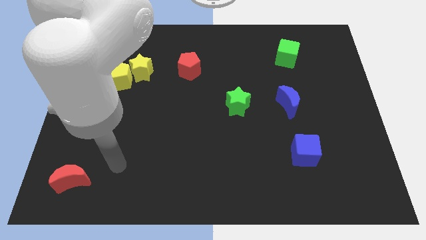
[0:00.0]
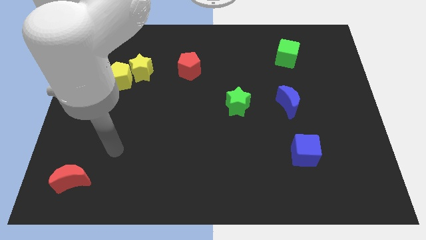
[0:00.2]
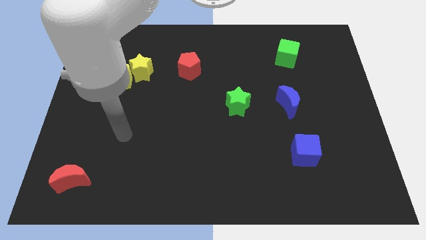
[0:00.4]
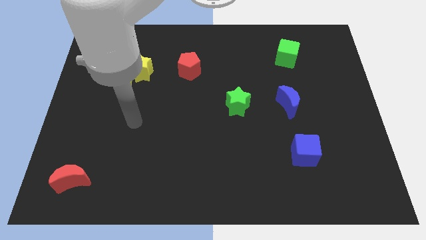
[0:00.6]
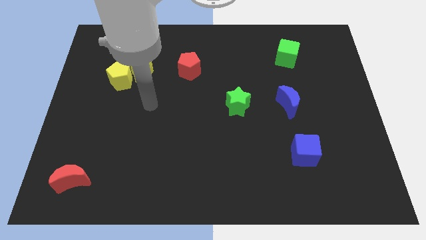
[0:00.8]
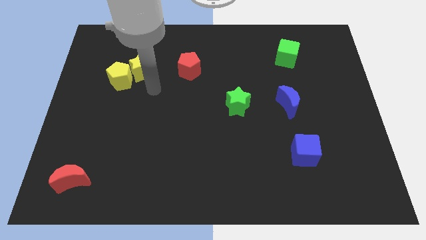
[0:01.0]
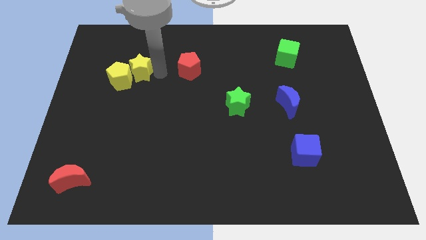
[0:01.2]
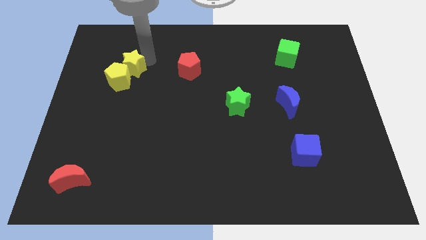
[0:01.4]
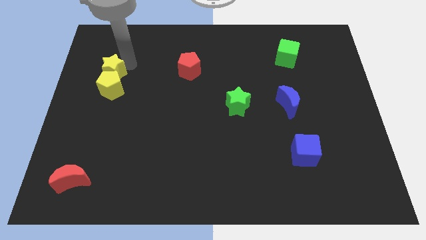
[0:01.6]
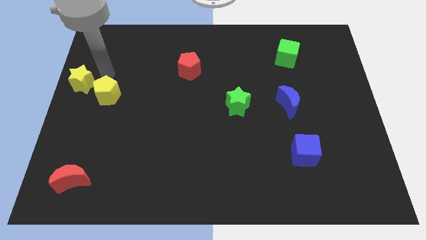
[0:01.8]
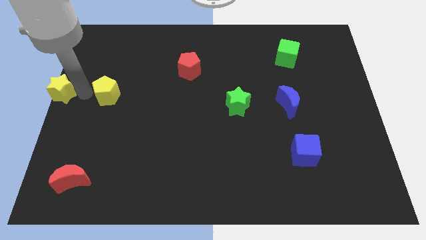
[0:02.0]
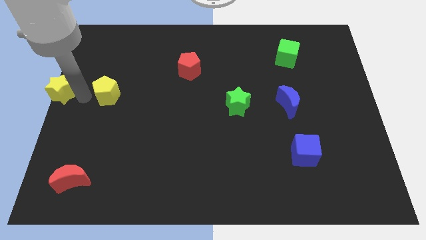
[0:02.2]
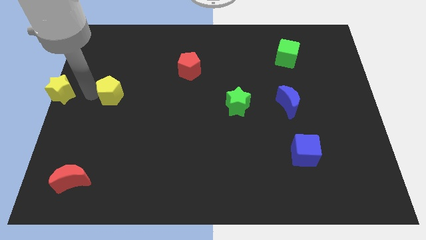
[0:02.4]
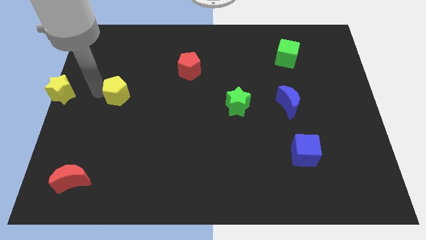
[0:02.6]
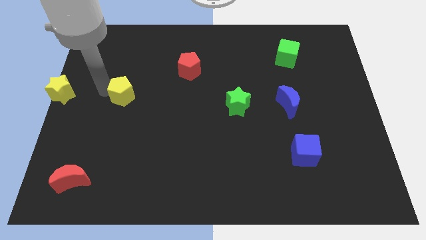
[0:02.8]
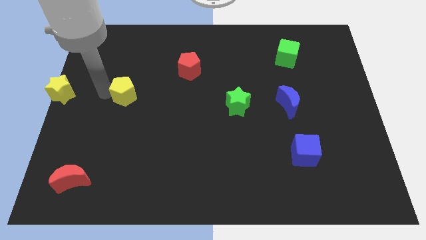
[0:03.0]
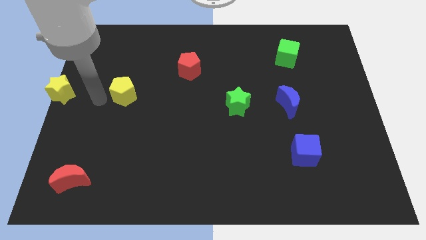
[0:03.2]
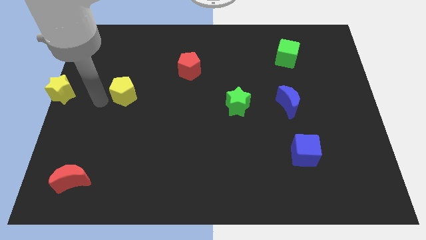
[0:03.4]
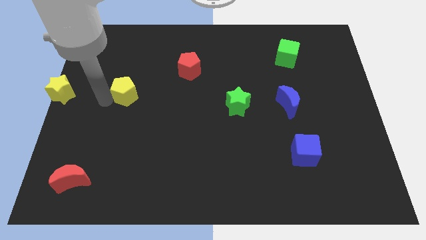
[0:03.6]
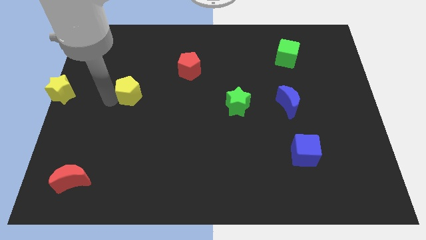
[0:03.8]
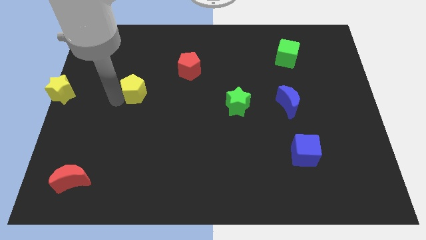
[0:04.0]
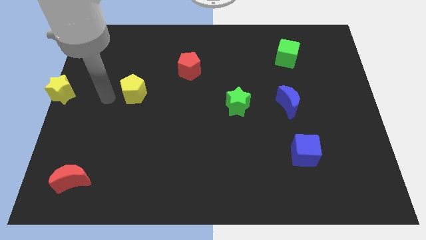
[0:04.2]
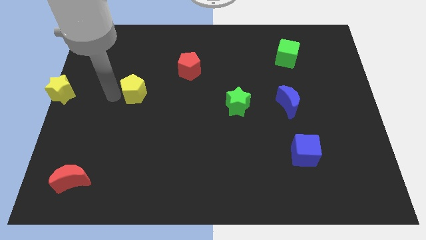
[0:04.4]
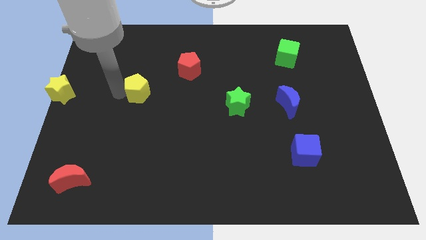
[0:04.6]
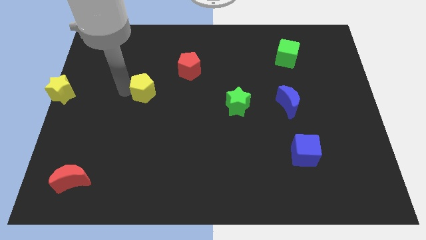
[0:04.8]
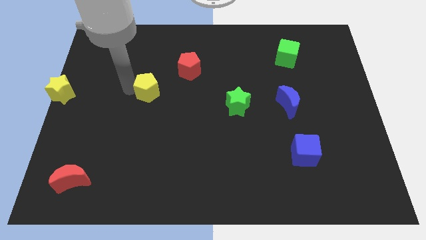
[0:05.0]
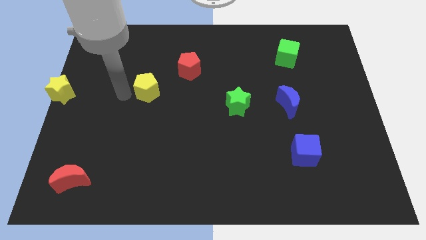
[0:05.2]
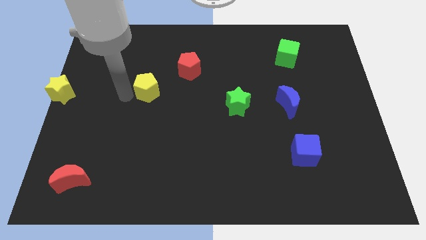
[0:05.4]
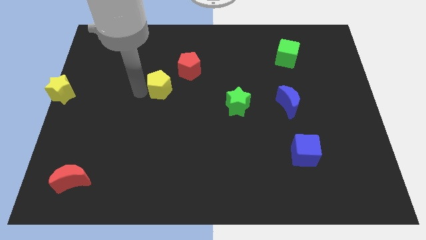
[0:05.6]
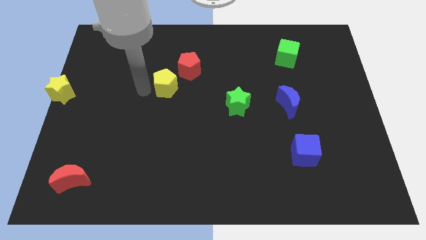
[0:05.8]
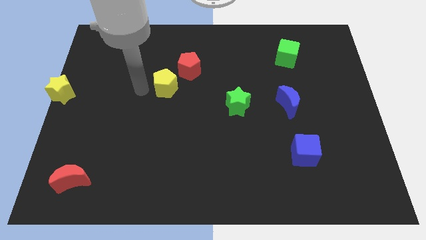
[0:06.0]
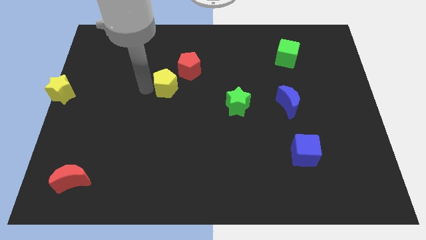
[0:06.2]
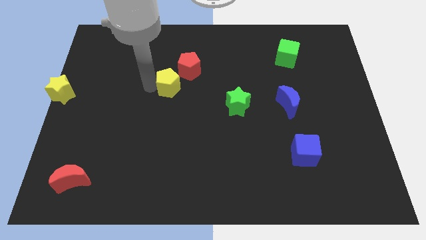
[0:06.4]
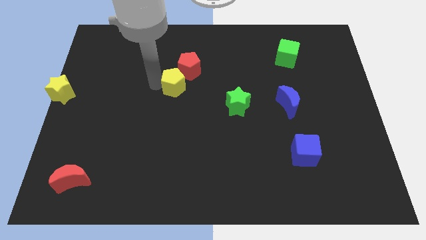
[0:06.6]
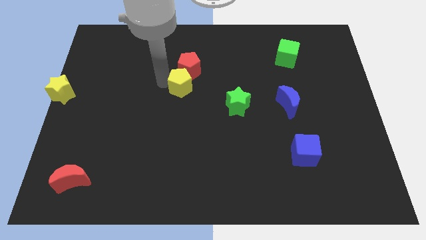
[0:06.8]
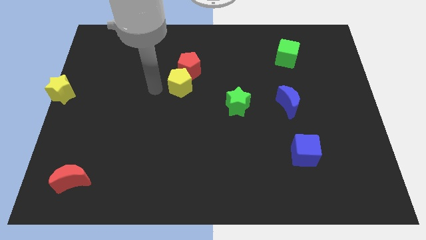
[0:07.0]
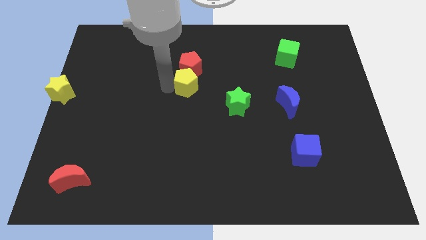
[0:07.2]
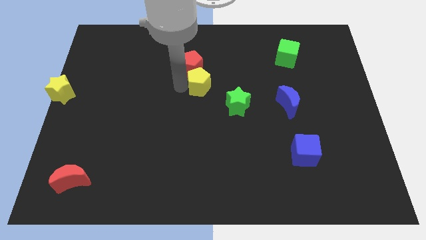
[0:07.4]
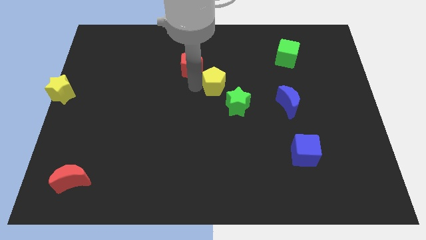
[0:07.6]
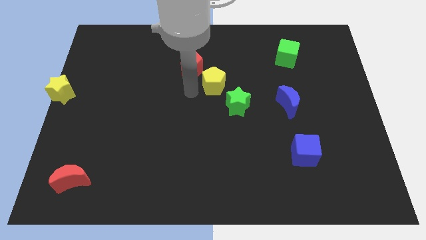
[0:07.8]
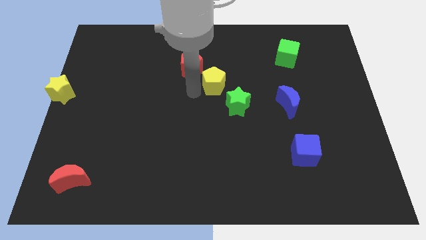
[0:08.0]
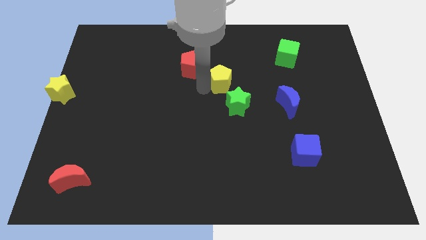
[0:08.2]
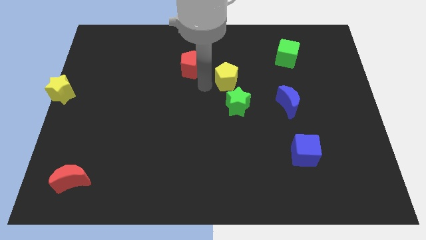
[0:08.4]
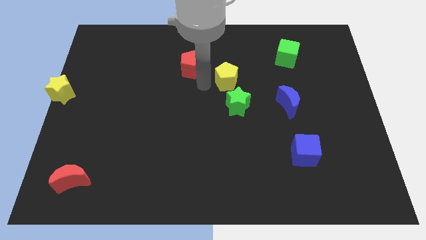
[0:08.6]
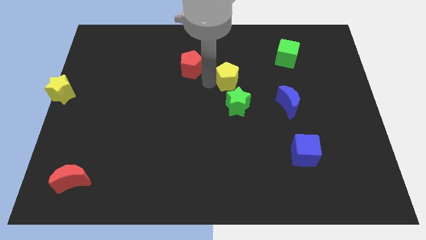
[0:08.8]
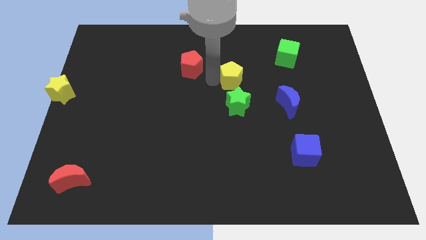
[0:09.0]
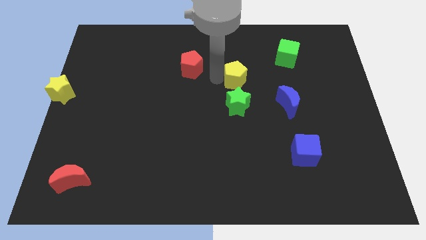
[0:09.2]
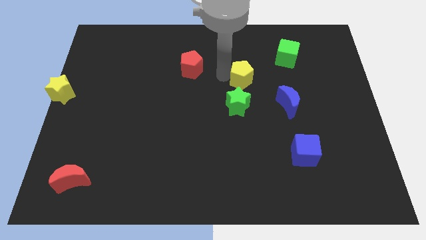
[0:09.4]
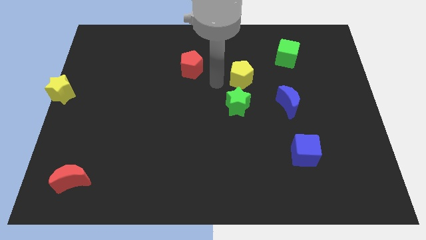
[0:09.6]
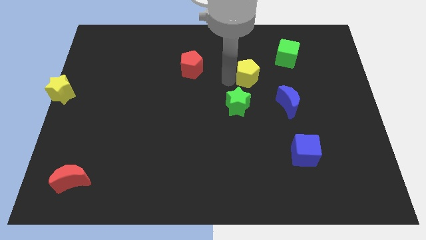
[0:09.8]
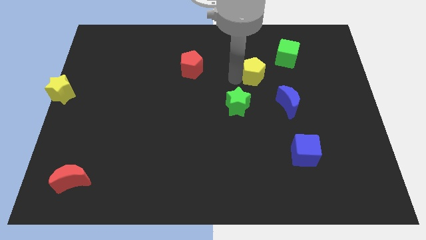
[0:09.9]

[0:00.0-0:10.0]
push the yellow pentagon to the bottom left side of the green cube

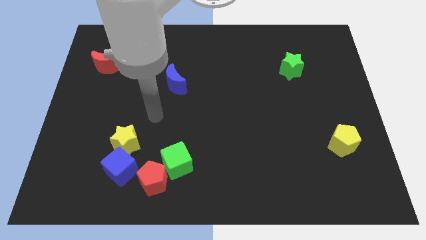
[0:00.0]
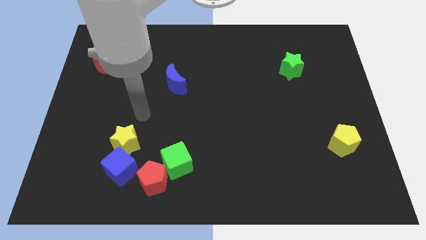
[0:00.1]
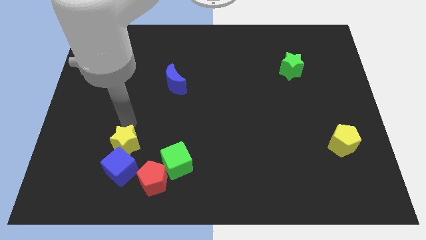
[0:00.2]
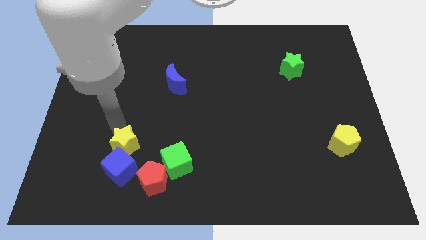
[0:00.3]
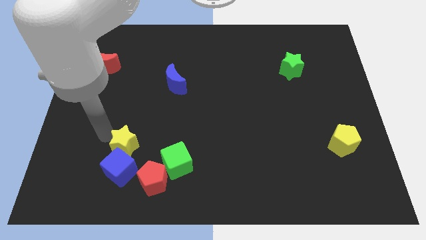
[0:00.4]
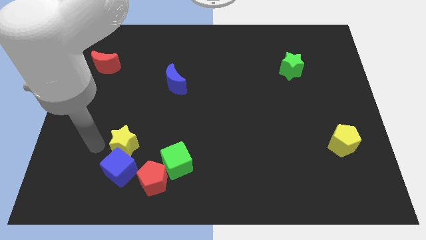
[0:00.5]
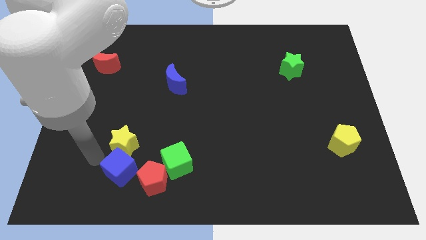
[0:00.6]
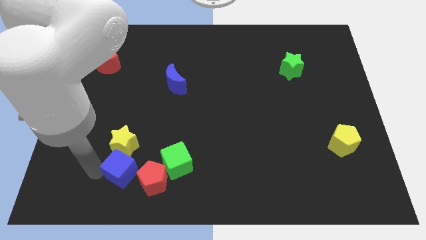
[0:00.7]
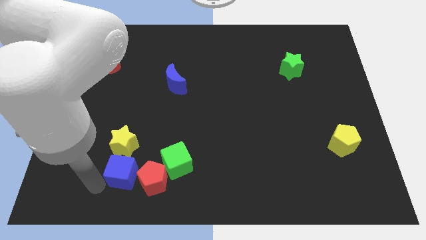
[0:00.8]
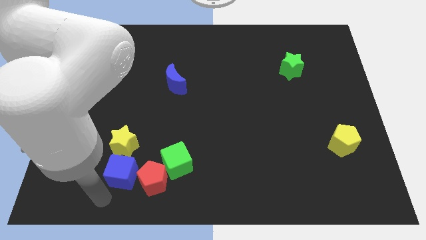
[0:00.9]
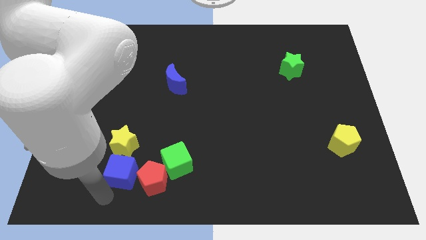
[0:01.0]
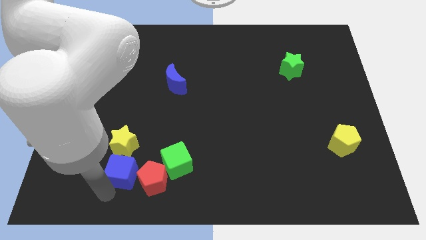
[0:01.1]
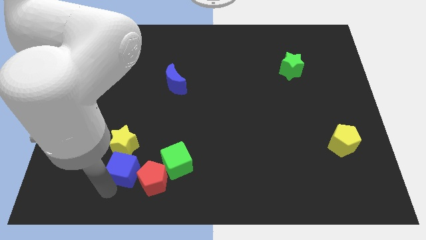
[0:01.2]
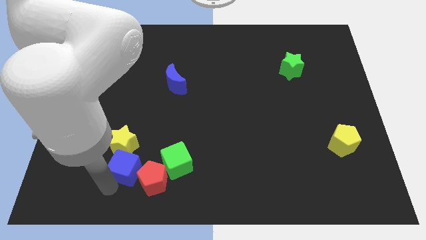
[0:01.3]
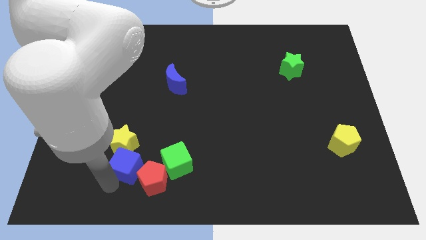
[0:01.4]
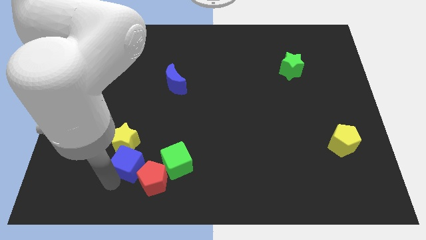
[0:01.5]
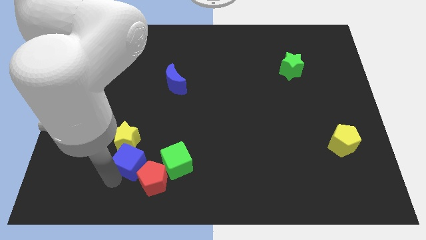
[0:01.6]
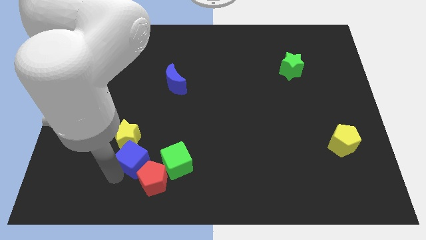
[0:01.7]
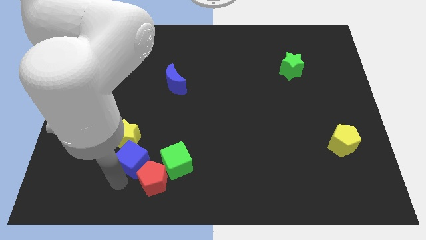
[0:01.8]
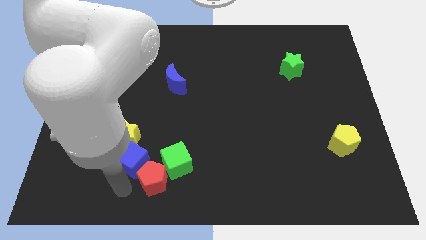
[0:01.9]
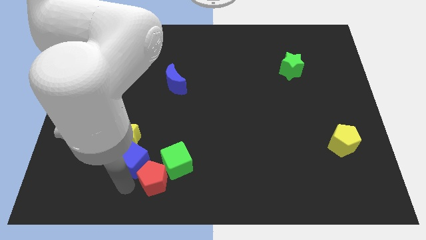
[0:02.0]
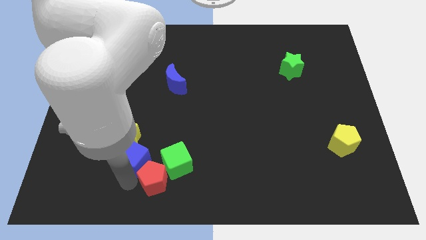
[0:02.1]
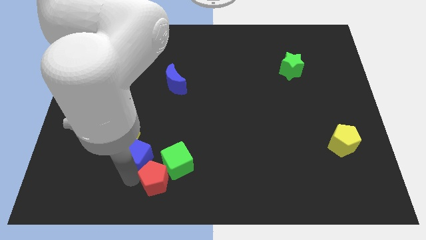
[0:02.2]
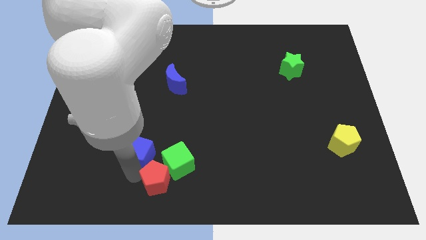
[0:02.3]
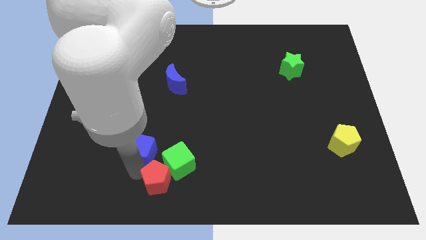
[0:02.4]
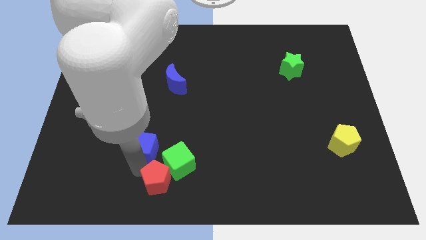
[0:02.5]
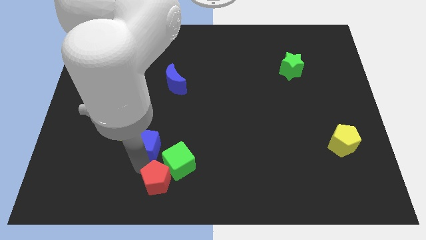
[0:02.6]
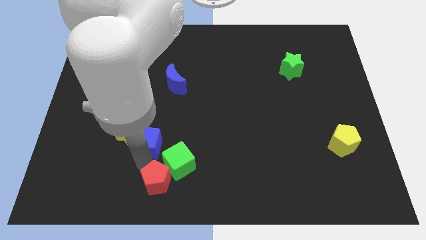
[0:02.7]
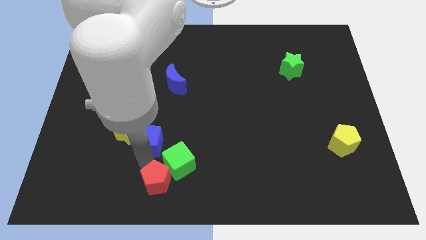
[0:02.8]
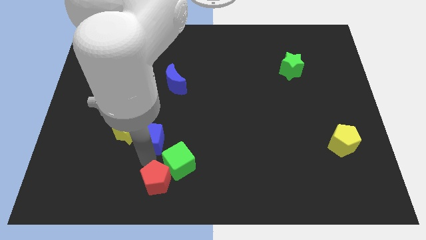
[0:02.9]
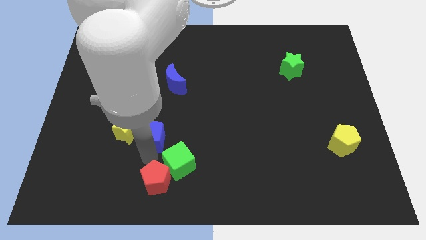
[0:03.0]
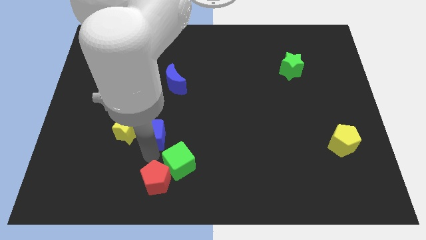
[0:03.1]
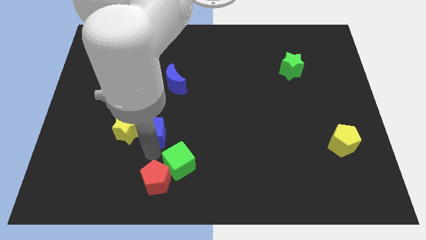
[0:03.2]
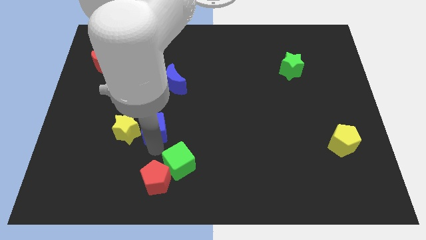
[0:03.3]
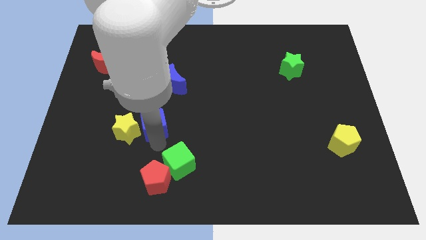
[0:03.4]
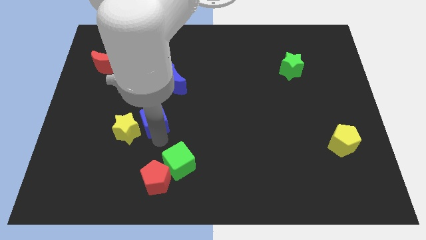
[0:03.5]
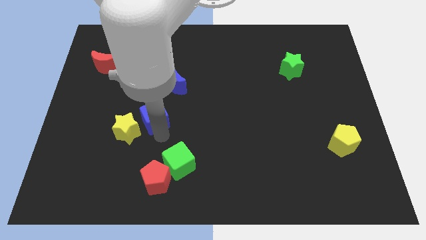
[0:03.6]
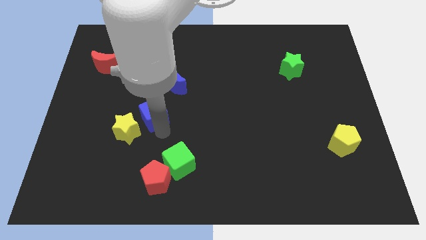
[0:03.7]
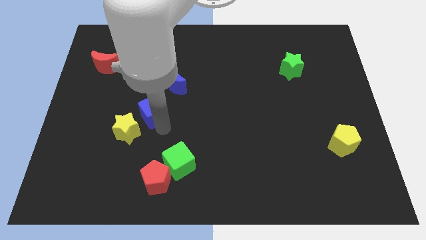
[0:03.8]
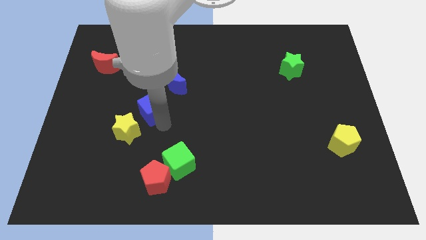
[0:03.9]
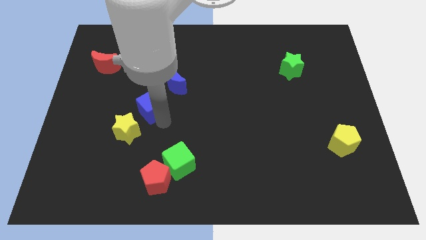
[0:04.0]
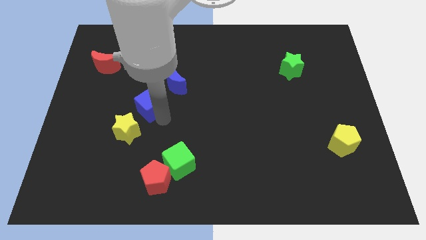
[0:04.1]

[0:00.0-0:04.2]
push the blue cube to the top side of the yellow star
